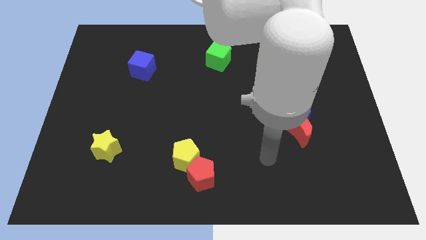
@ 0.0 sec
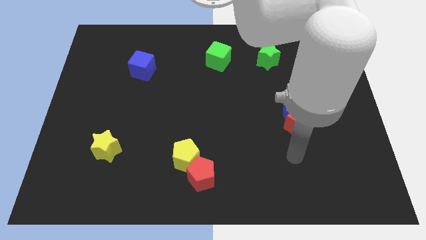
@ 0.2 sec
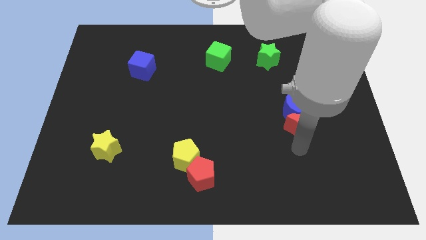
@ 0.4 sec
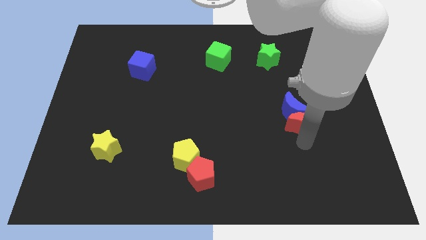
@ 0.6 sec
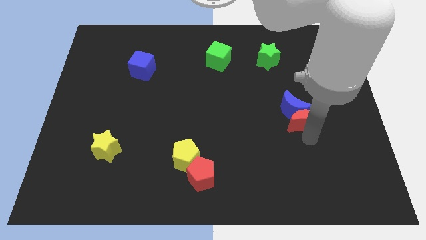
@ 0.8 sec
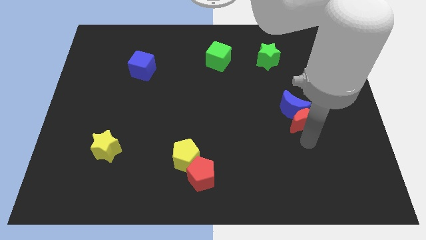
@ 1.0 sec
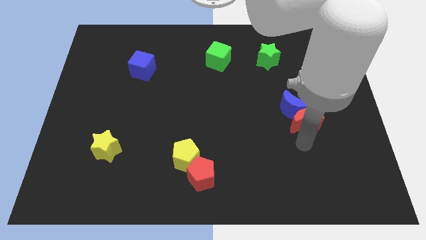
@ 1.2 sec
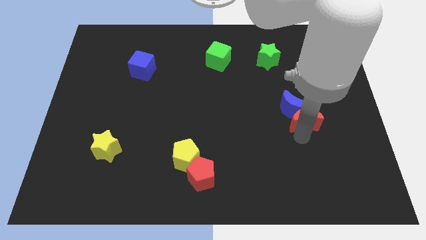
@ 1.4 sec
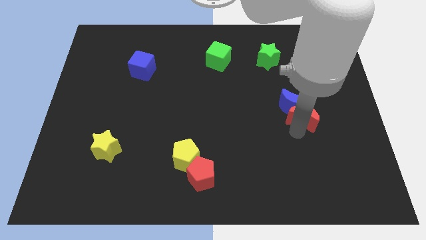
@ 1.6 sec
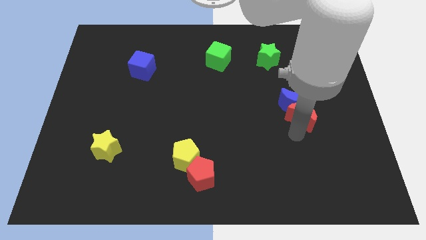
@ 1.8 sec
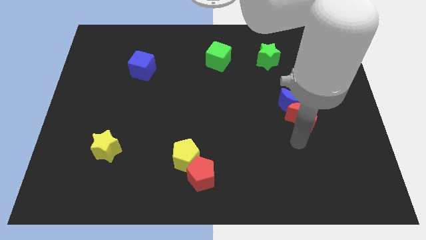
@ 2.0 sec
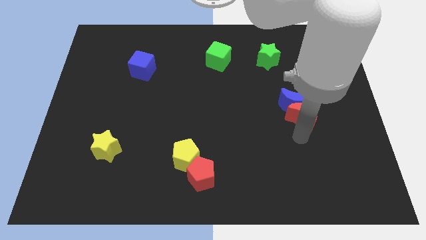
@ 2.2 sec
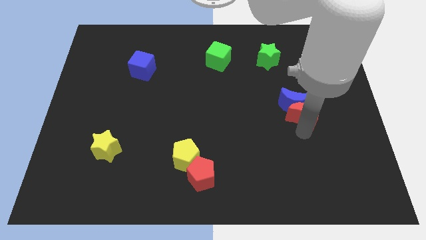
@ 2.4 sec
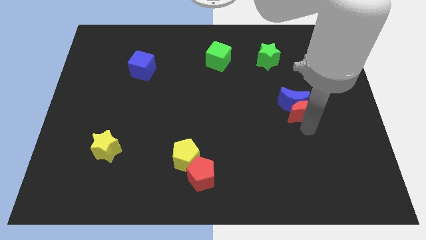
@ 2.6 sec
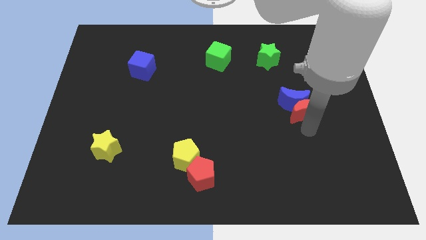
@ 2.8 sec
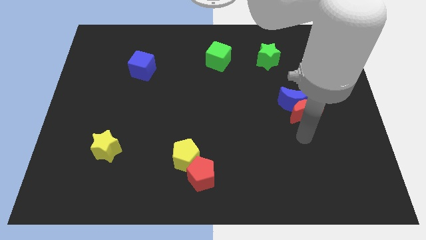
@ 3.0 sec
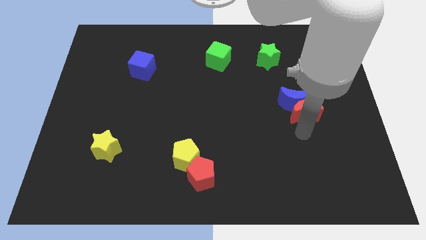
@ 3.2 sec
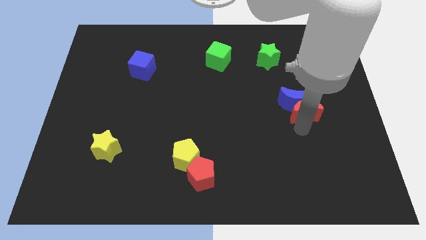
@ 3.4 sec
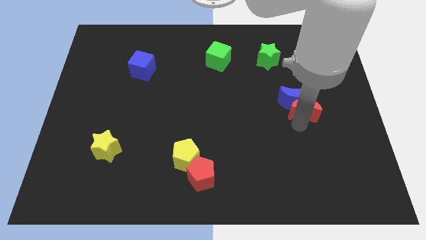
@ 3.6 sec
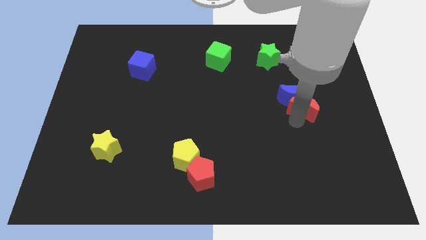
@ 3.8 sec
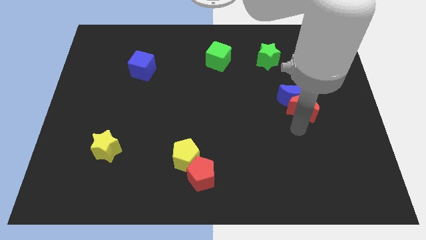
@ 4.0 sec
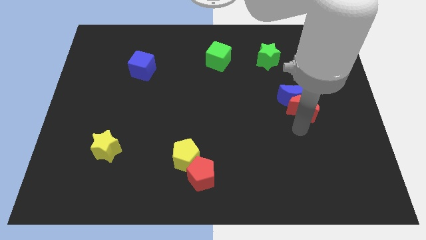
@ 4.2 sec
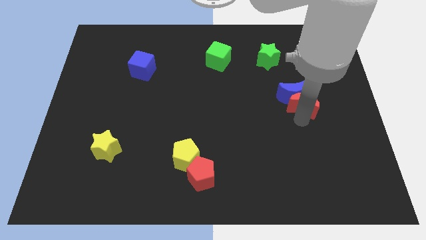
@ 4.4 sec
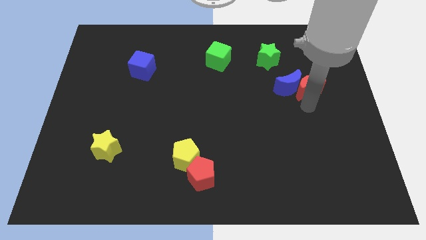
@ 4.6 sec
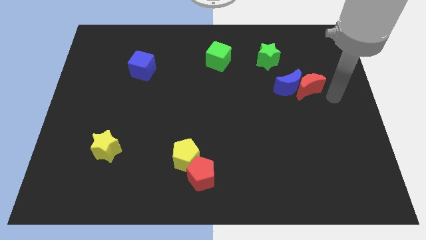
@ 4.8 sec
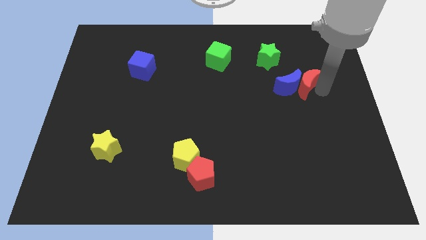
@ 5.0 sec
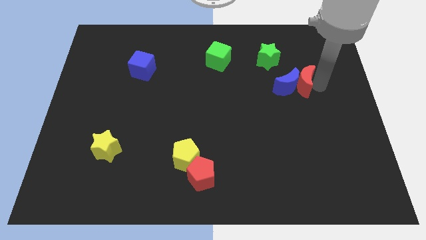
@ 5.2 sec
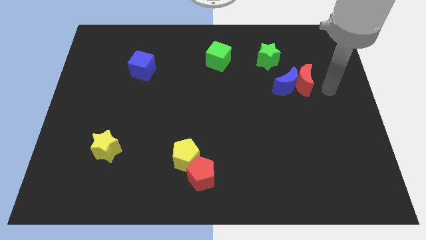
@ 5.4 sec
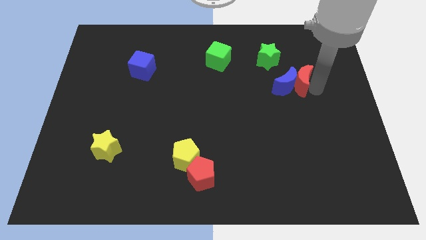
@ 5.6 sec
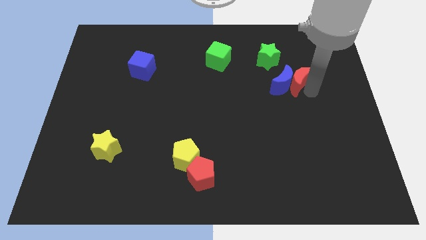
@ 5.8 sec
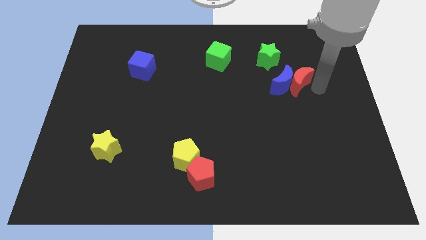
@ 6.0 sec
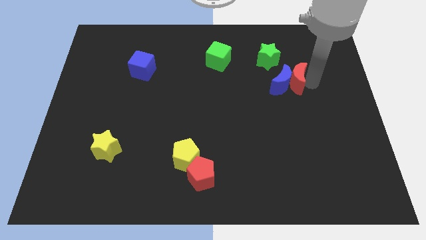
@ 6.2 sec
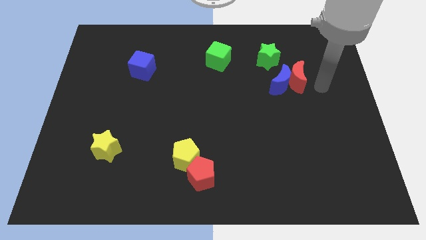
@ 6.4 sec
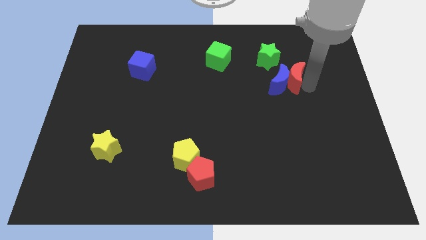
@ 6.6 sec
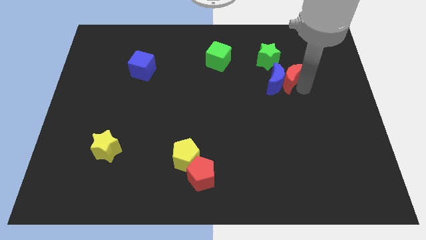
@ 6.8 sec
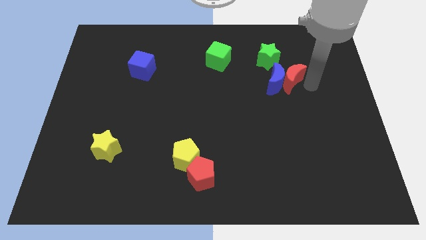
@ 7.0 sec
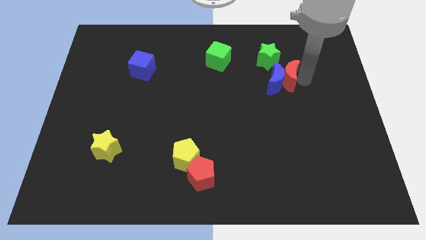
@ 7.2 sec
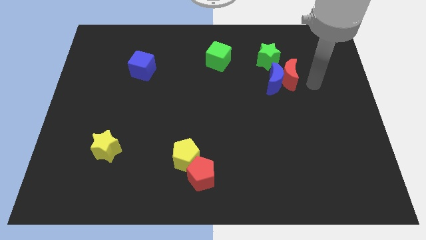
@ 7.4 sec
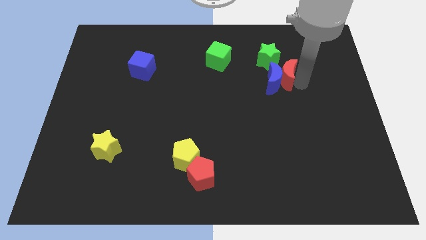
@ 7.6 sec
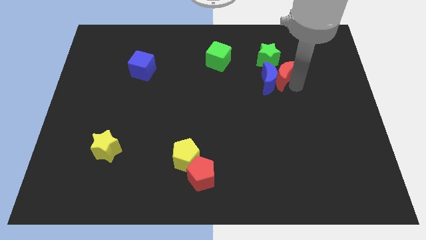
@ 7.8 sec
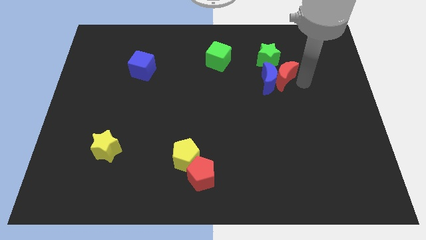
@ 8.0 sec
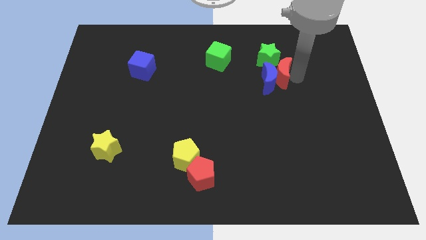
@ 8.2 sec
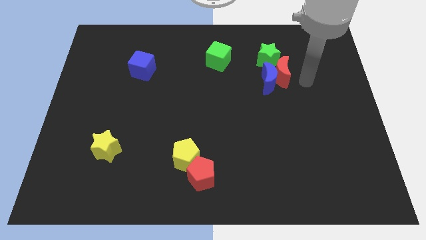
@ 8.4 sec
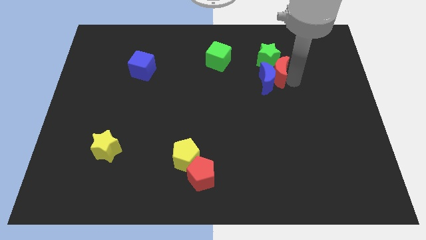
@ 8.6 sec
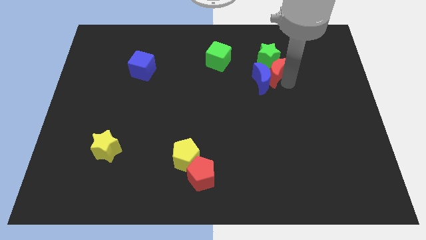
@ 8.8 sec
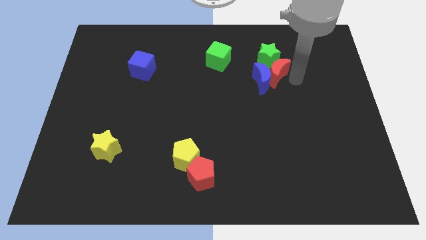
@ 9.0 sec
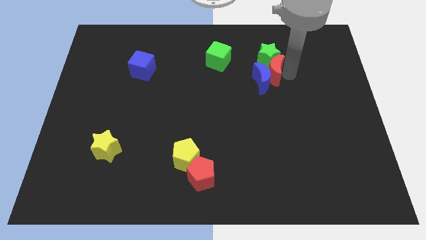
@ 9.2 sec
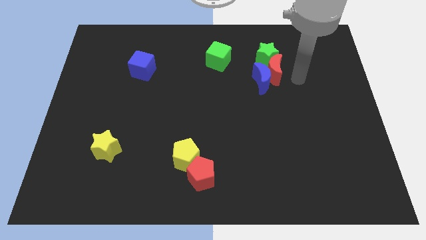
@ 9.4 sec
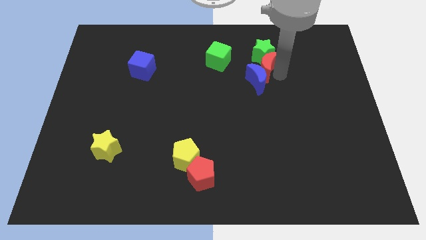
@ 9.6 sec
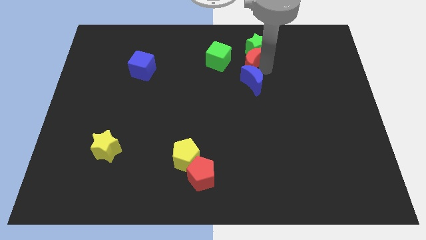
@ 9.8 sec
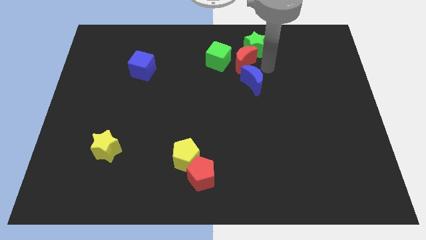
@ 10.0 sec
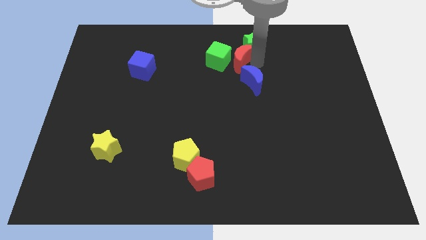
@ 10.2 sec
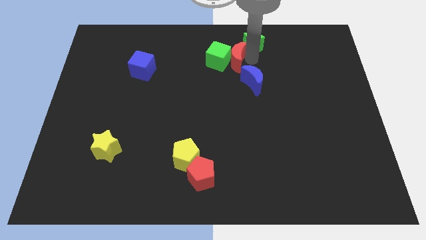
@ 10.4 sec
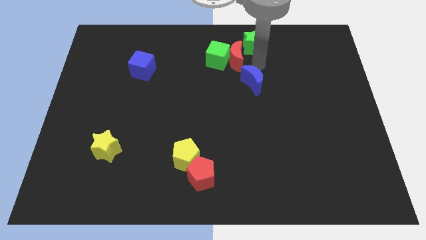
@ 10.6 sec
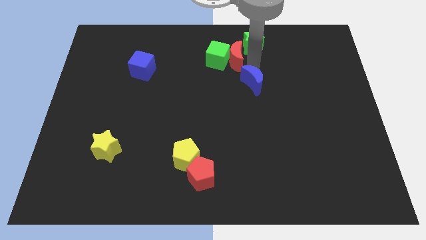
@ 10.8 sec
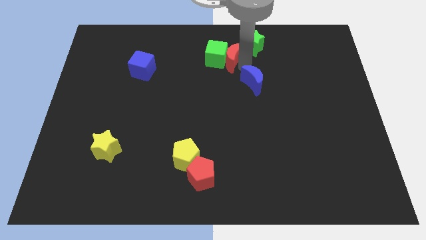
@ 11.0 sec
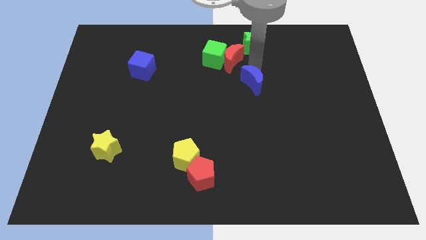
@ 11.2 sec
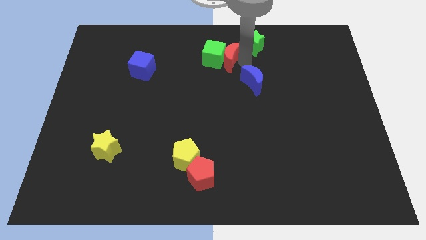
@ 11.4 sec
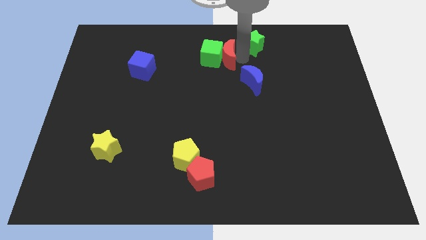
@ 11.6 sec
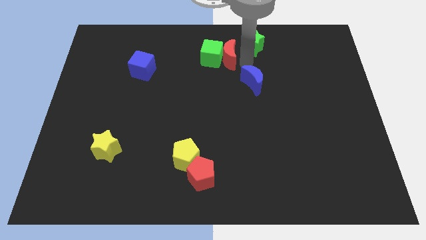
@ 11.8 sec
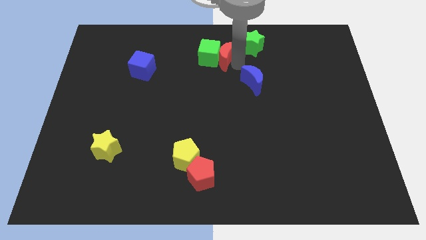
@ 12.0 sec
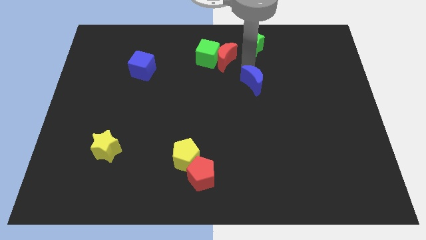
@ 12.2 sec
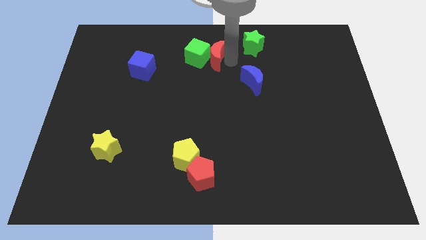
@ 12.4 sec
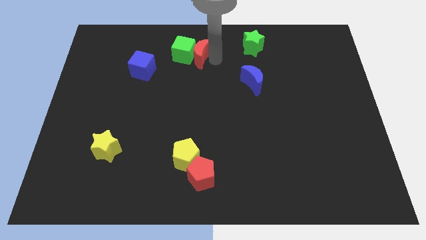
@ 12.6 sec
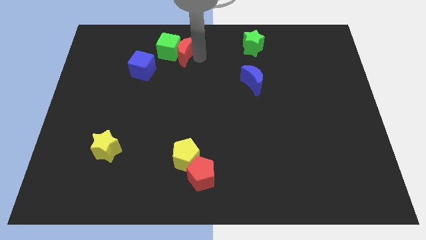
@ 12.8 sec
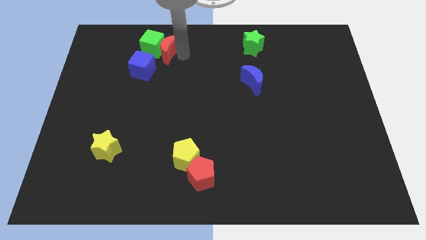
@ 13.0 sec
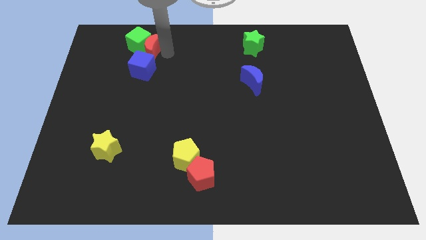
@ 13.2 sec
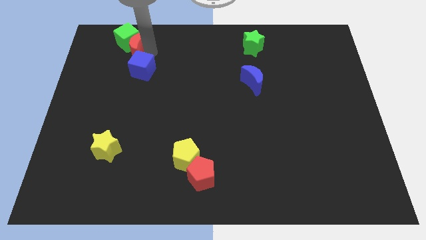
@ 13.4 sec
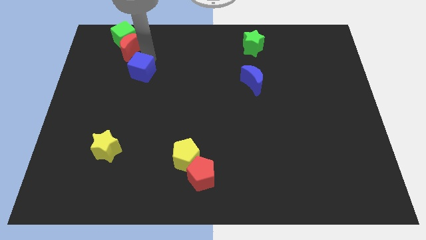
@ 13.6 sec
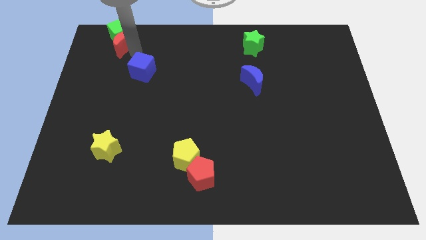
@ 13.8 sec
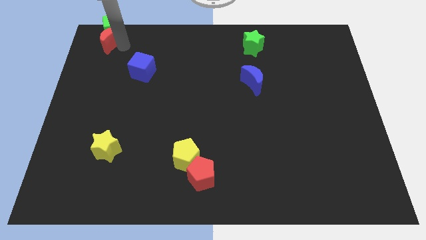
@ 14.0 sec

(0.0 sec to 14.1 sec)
push the red moon to the top left corner
